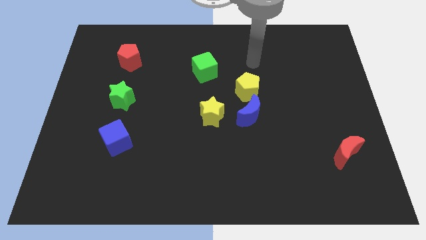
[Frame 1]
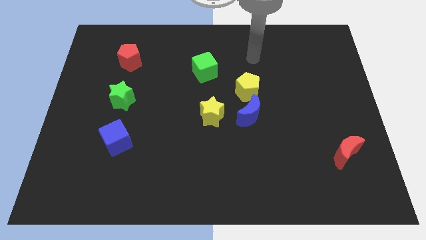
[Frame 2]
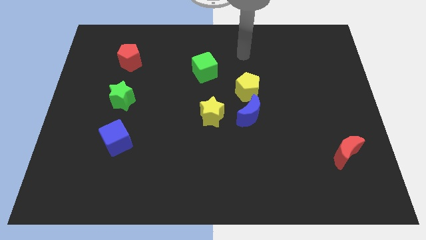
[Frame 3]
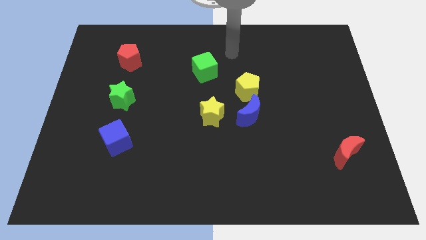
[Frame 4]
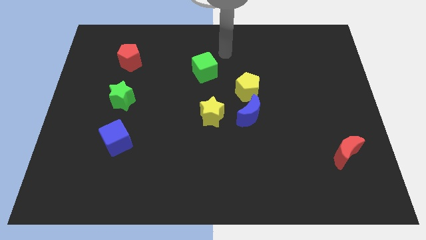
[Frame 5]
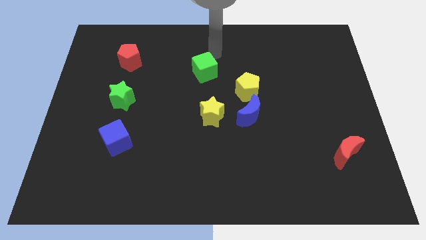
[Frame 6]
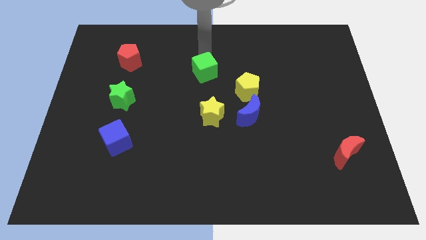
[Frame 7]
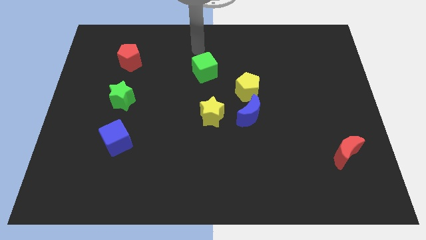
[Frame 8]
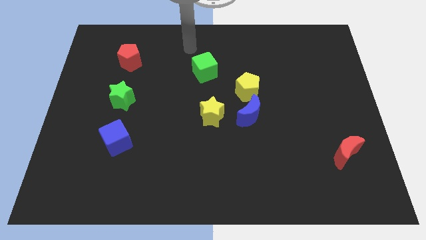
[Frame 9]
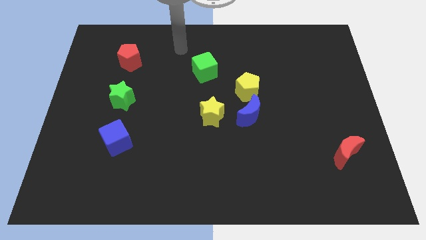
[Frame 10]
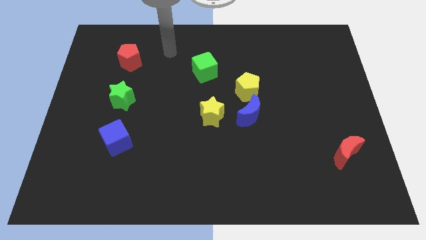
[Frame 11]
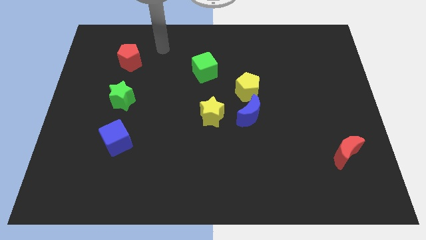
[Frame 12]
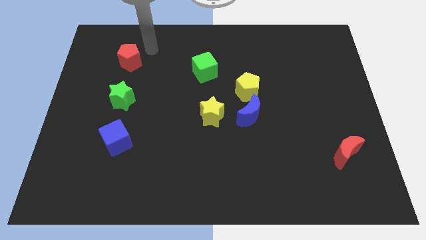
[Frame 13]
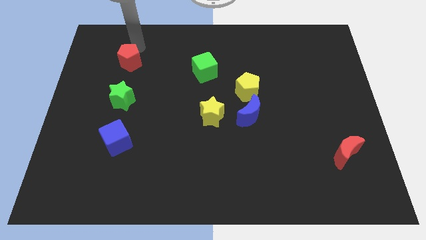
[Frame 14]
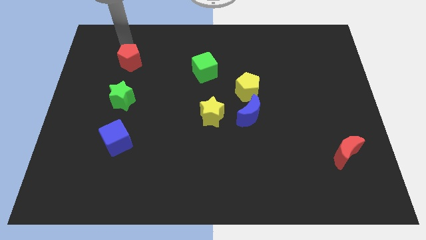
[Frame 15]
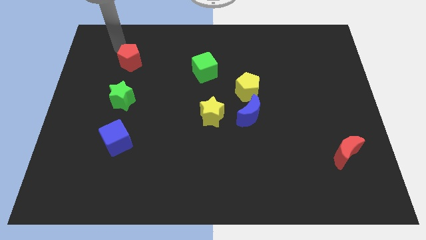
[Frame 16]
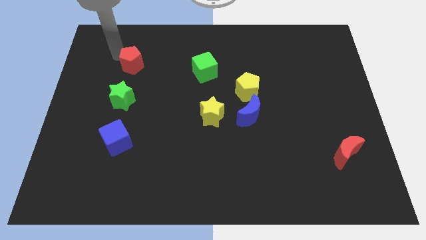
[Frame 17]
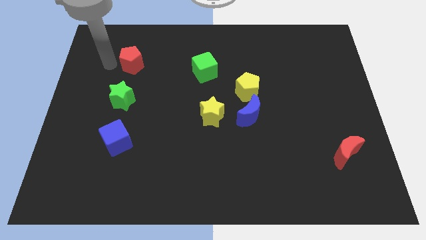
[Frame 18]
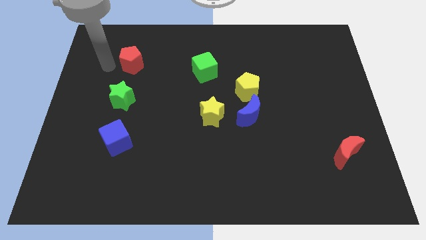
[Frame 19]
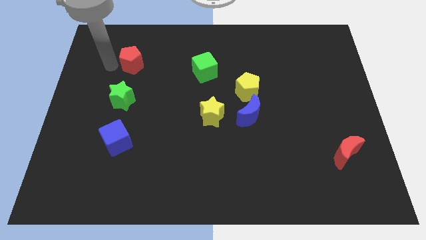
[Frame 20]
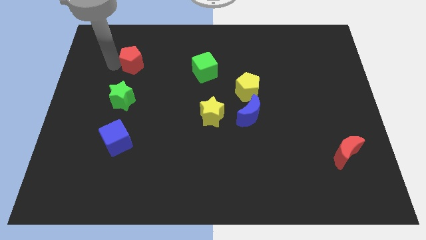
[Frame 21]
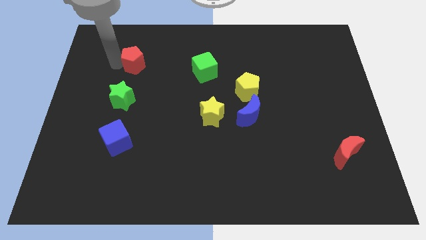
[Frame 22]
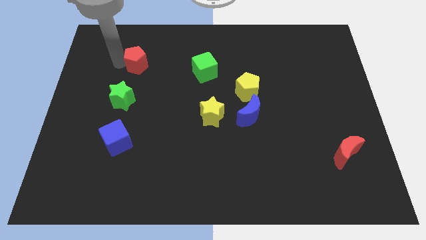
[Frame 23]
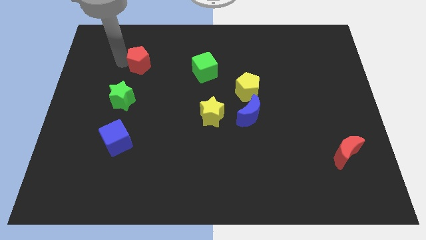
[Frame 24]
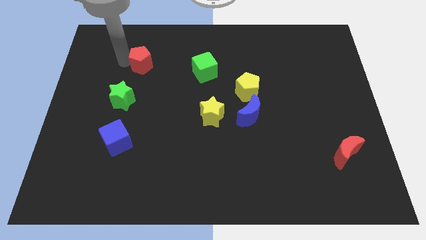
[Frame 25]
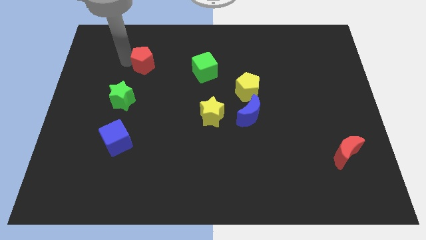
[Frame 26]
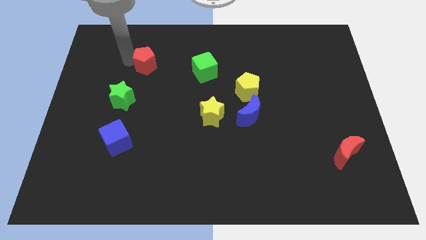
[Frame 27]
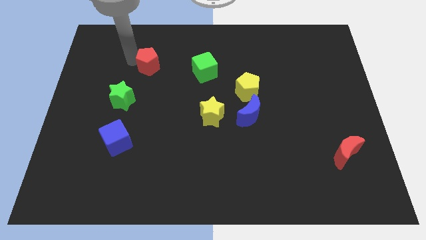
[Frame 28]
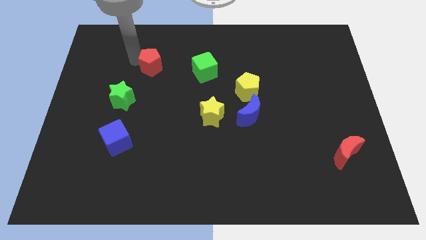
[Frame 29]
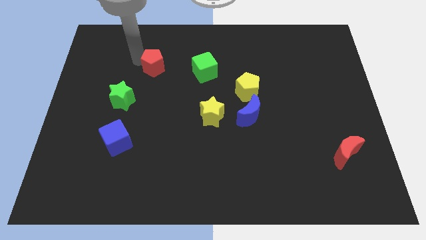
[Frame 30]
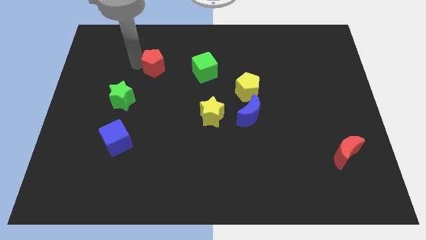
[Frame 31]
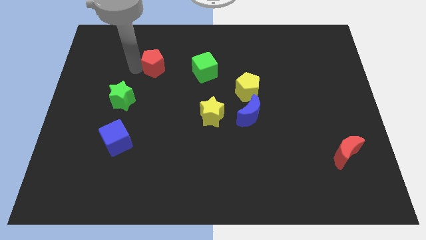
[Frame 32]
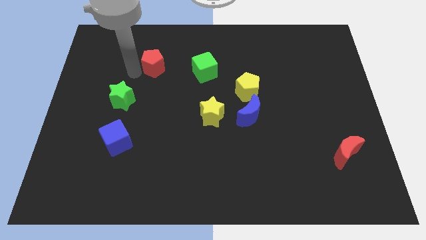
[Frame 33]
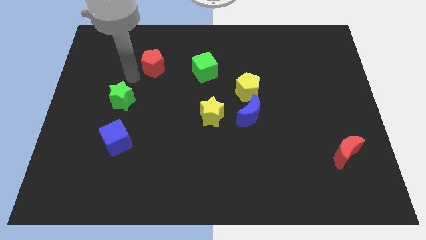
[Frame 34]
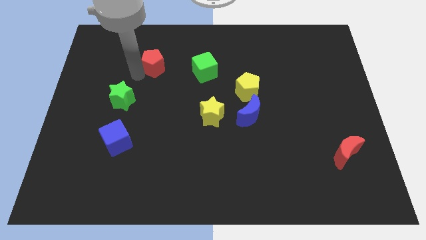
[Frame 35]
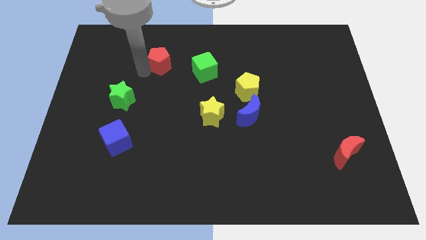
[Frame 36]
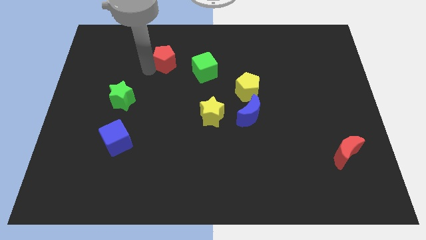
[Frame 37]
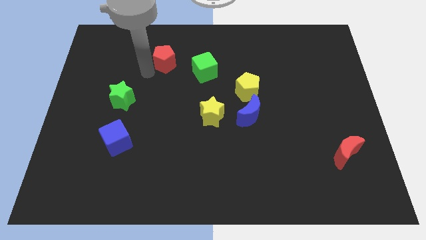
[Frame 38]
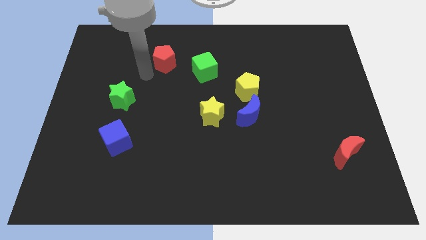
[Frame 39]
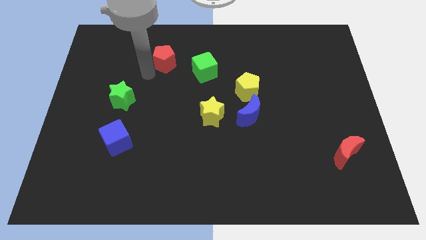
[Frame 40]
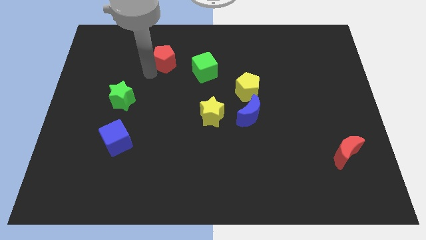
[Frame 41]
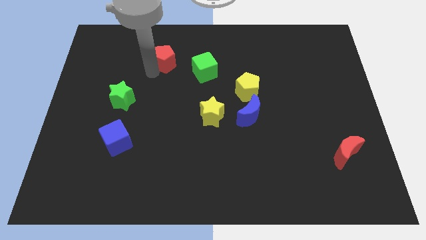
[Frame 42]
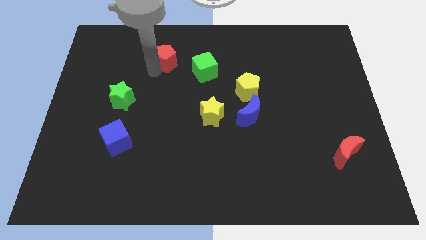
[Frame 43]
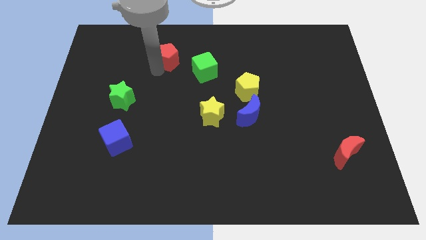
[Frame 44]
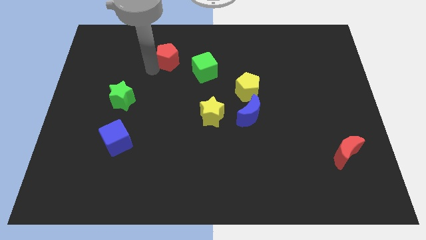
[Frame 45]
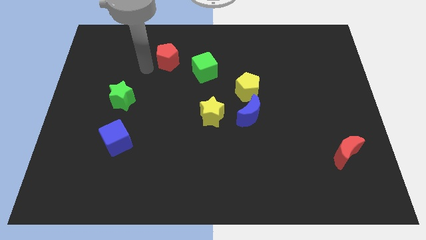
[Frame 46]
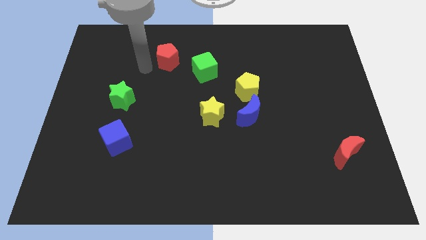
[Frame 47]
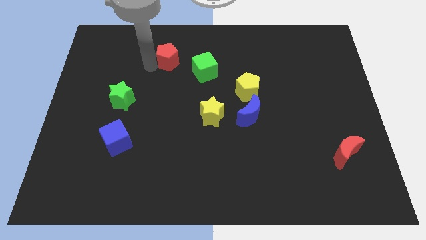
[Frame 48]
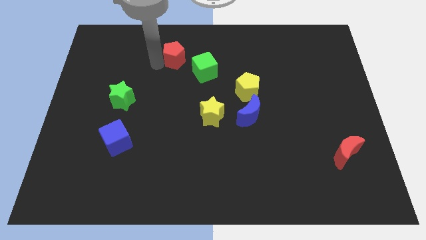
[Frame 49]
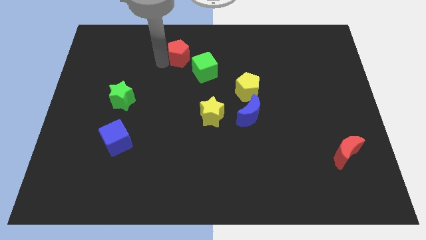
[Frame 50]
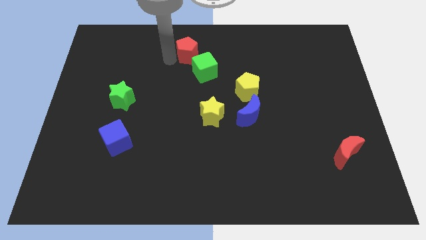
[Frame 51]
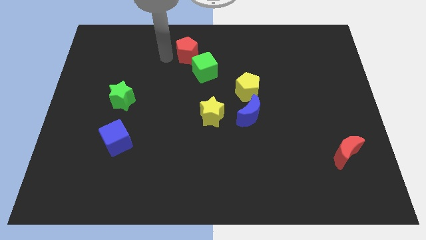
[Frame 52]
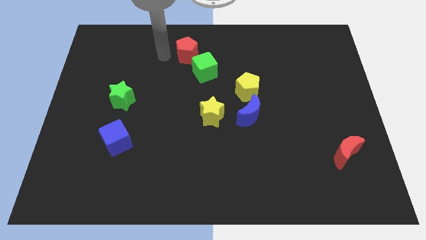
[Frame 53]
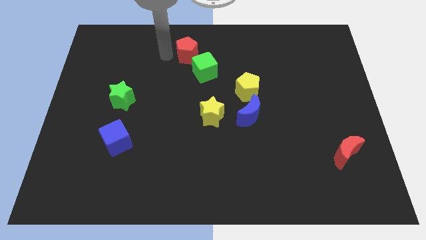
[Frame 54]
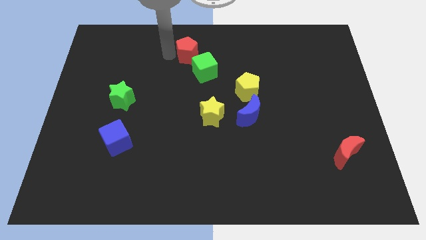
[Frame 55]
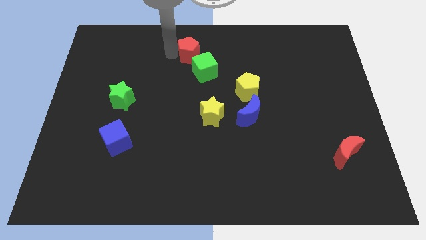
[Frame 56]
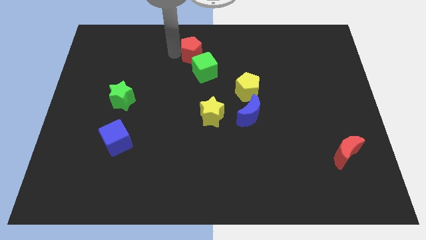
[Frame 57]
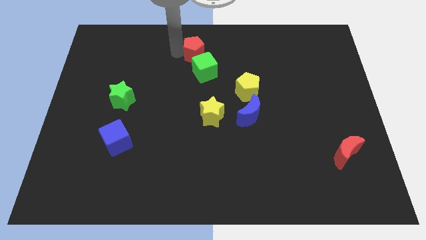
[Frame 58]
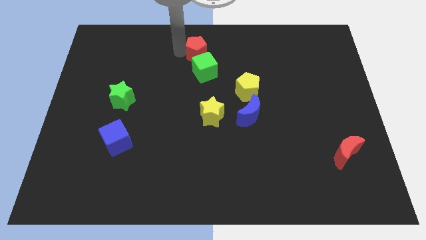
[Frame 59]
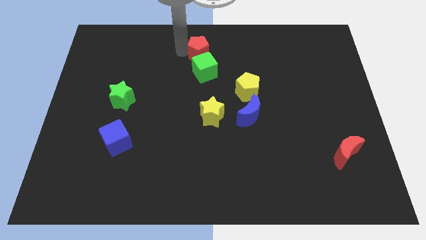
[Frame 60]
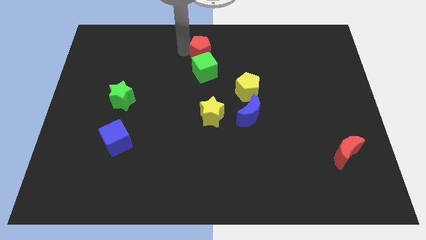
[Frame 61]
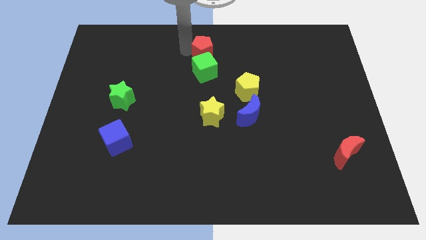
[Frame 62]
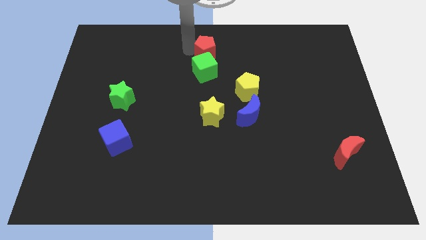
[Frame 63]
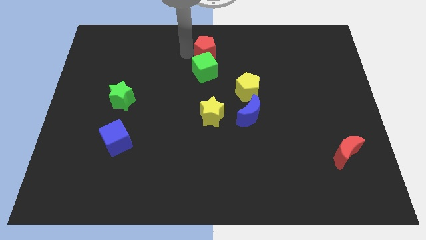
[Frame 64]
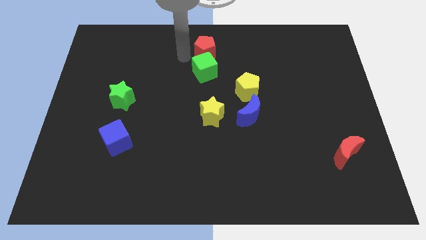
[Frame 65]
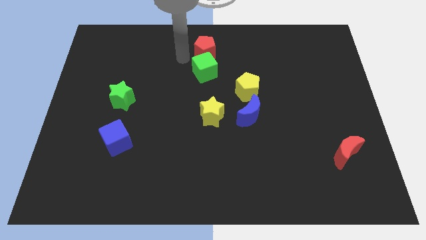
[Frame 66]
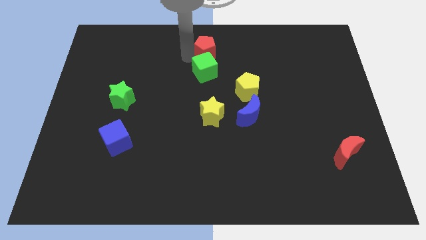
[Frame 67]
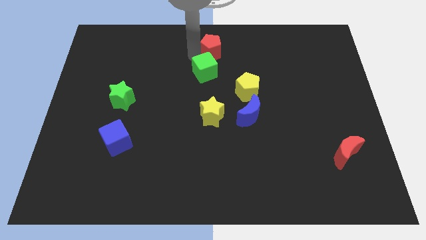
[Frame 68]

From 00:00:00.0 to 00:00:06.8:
move the red pentagon right

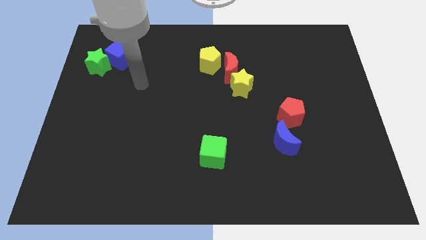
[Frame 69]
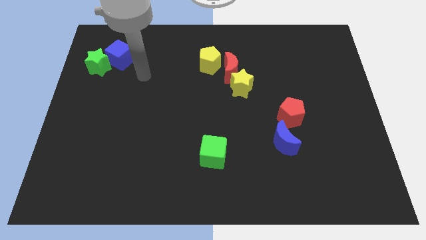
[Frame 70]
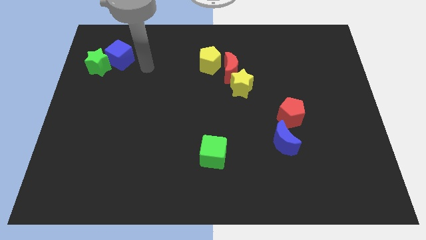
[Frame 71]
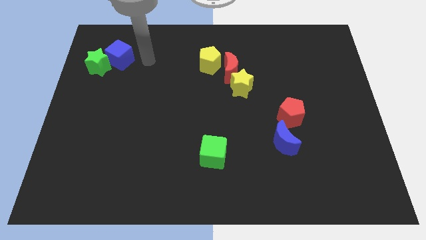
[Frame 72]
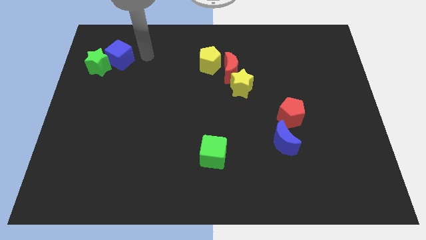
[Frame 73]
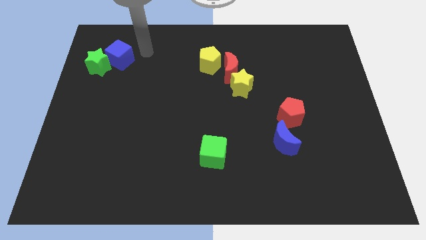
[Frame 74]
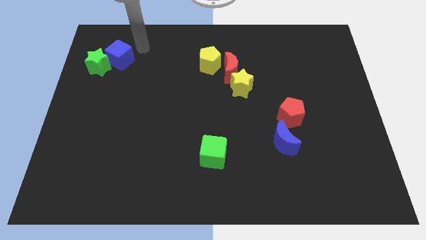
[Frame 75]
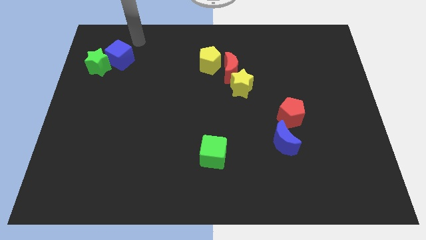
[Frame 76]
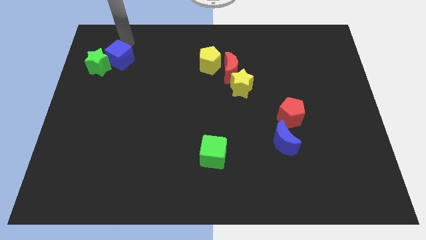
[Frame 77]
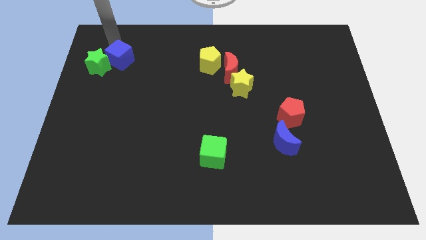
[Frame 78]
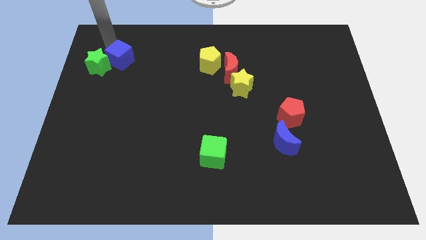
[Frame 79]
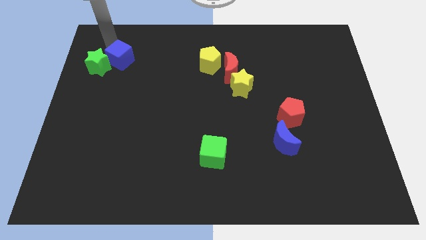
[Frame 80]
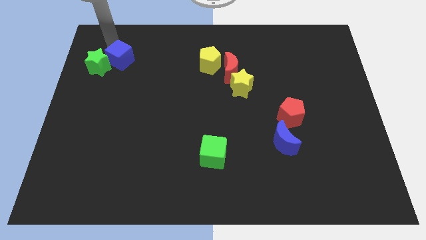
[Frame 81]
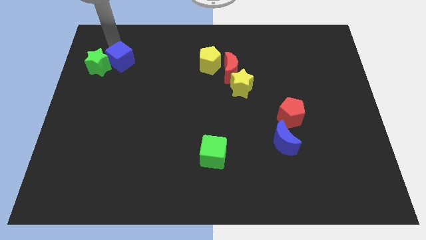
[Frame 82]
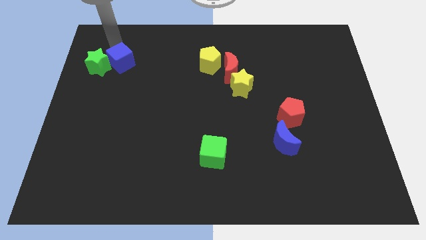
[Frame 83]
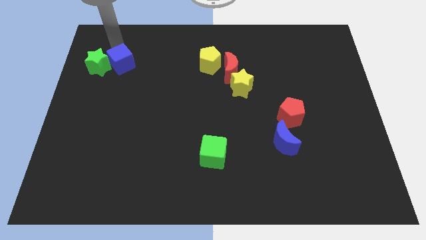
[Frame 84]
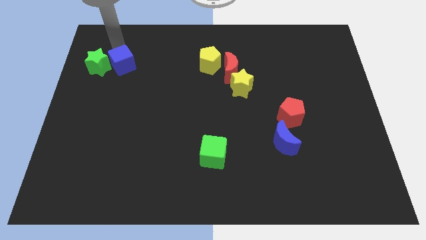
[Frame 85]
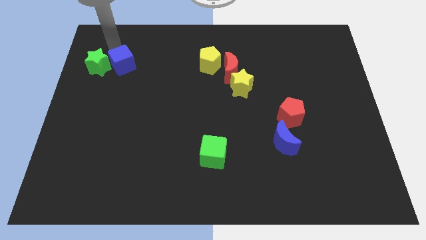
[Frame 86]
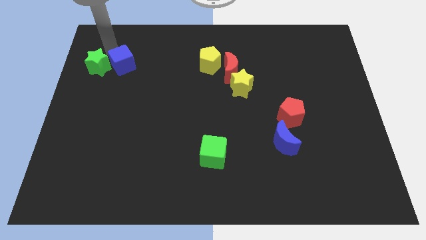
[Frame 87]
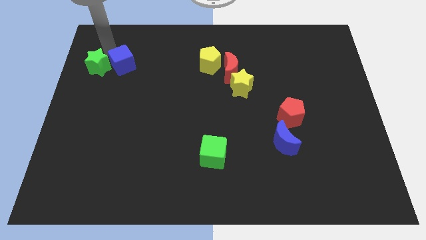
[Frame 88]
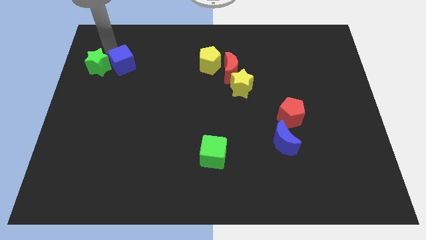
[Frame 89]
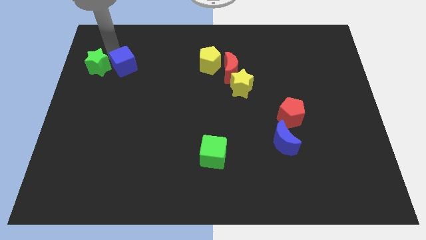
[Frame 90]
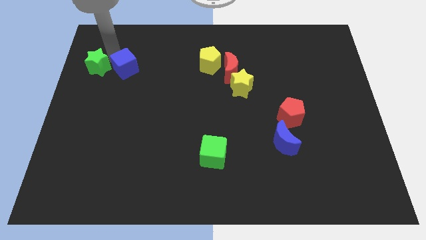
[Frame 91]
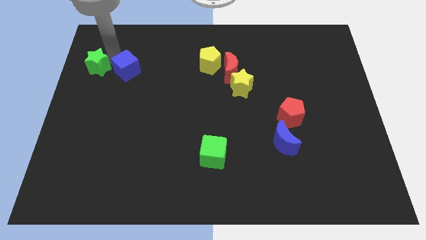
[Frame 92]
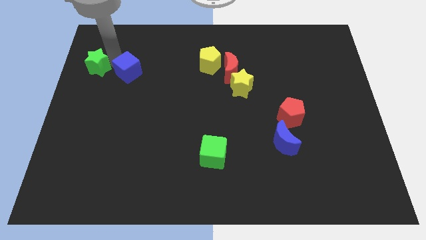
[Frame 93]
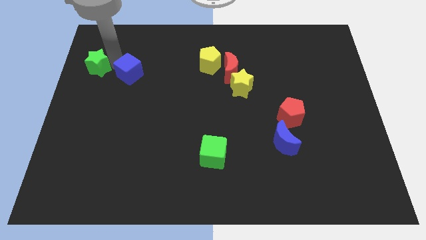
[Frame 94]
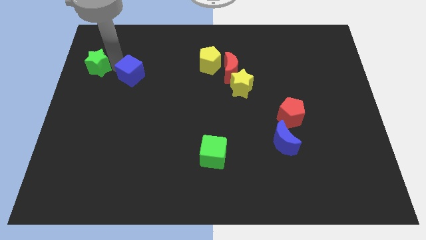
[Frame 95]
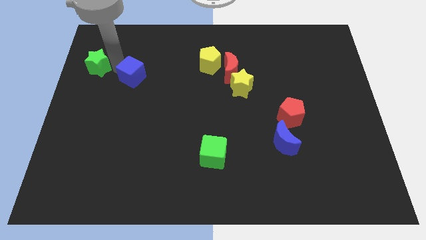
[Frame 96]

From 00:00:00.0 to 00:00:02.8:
slide the blue cube downwards and then right a bit
